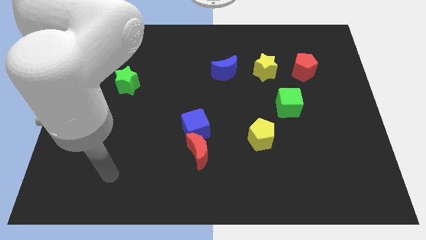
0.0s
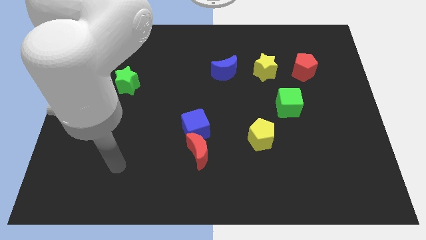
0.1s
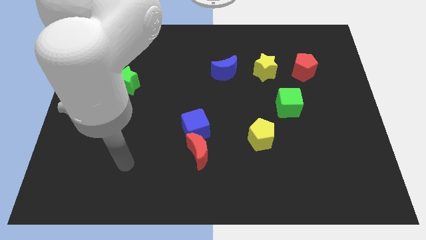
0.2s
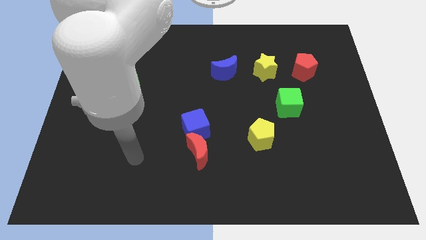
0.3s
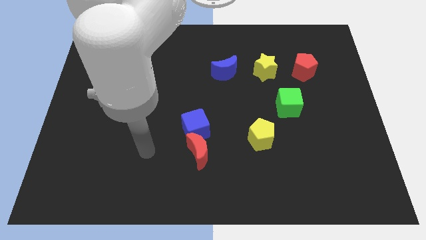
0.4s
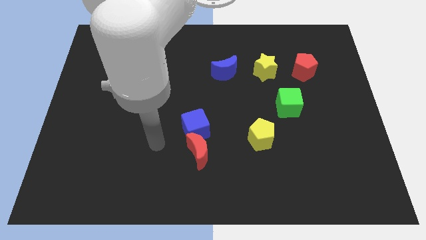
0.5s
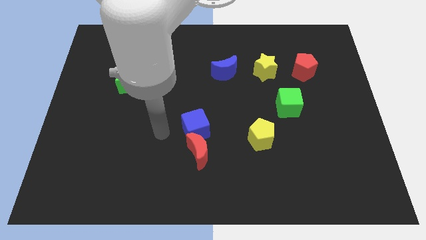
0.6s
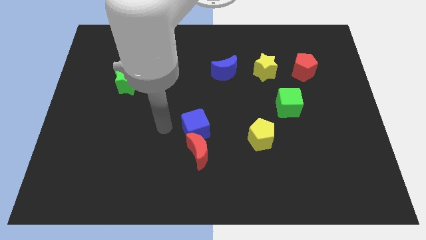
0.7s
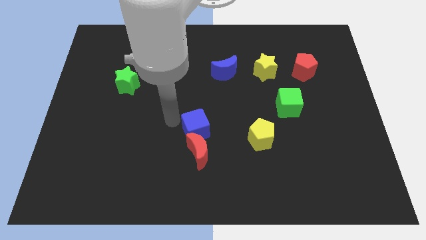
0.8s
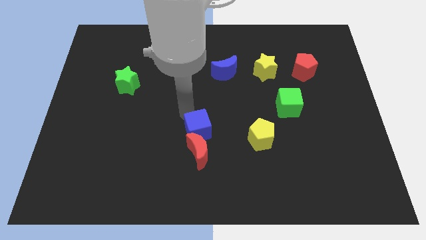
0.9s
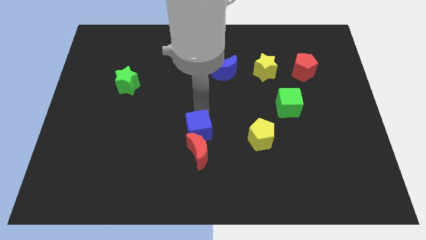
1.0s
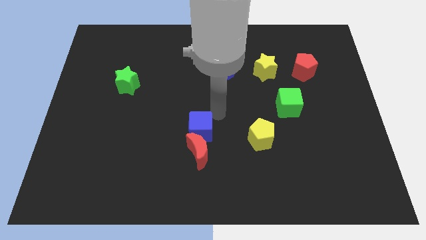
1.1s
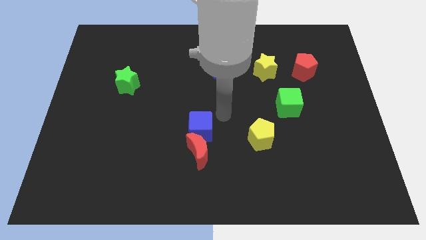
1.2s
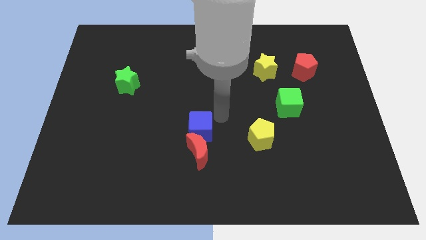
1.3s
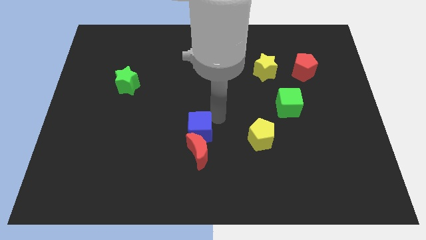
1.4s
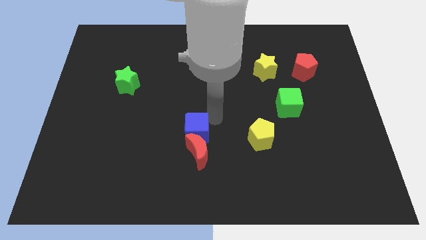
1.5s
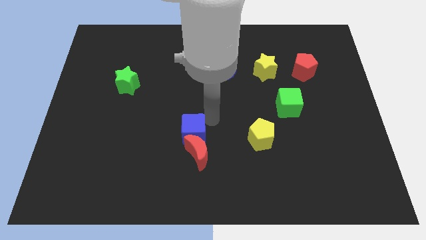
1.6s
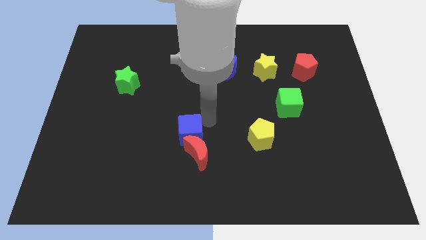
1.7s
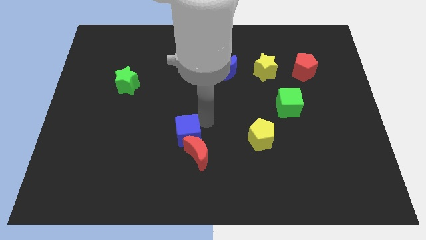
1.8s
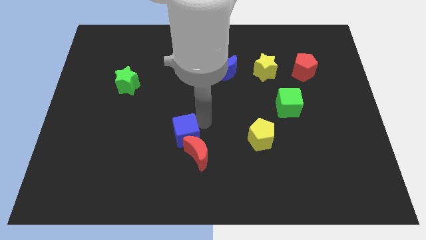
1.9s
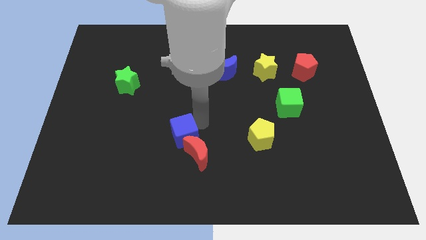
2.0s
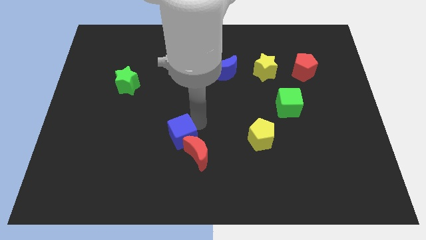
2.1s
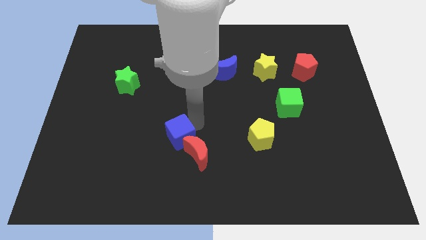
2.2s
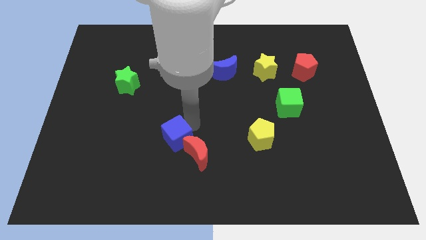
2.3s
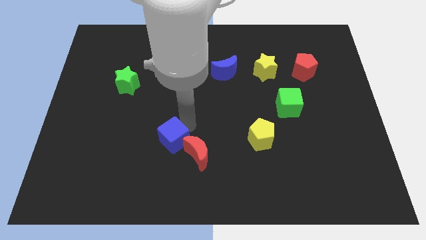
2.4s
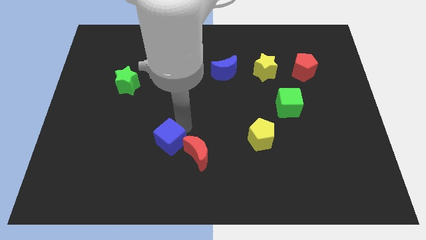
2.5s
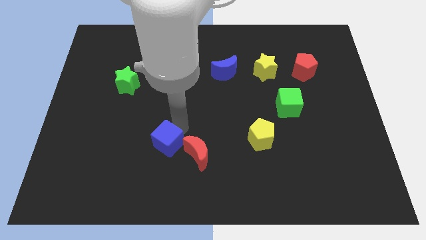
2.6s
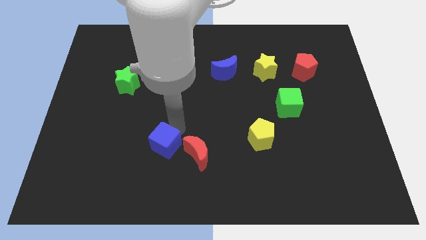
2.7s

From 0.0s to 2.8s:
move the blue cube somewhat downwards and left

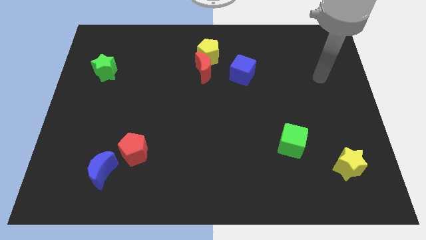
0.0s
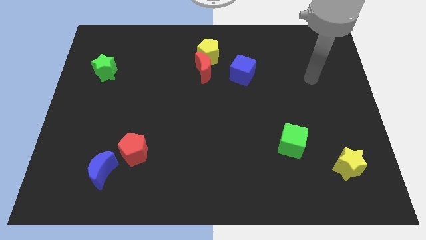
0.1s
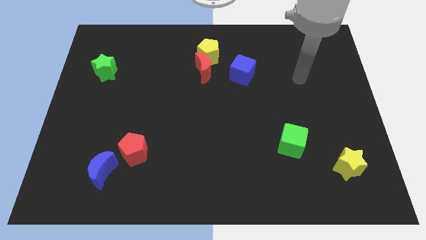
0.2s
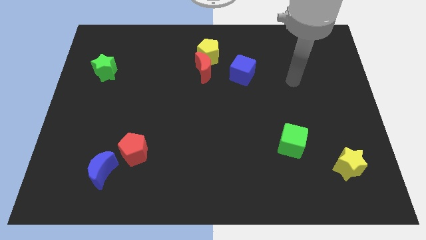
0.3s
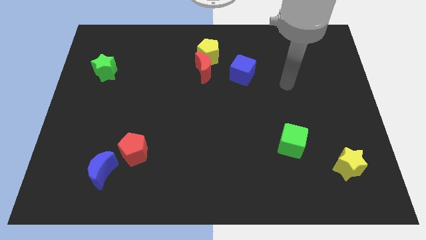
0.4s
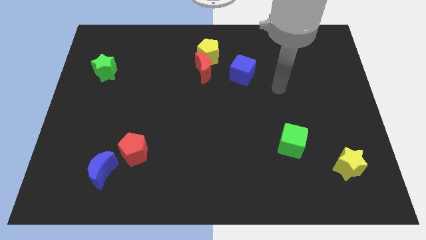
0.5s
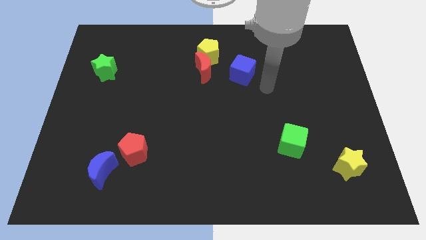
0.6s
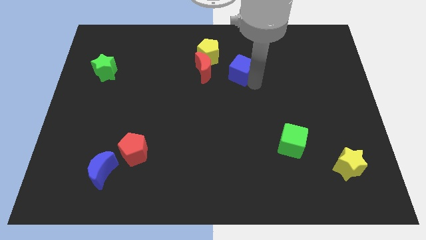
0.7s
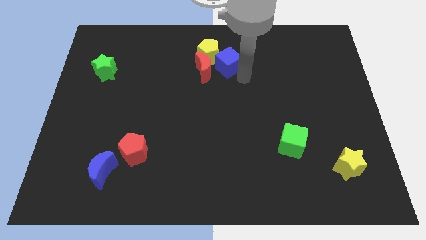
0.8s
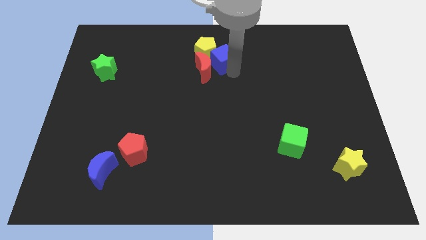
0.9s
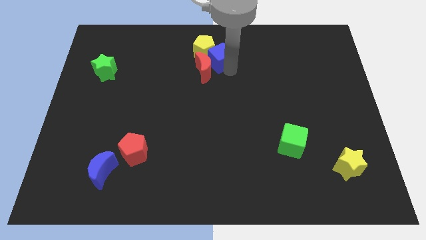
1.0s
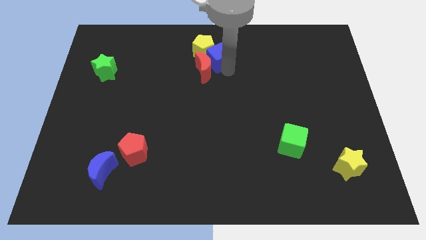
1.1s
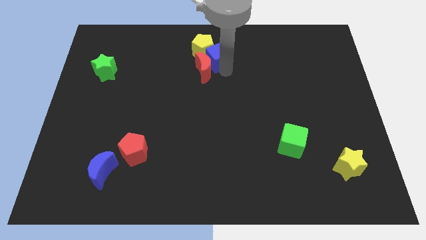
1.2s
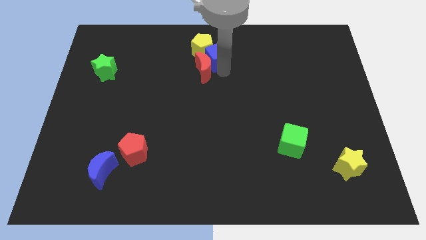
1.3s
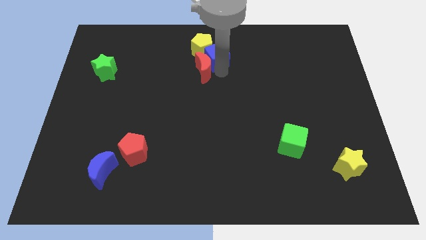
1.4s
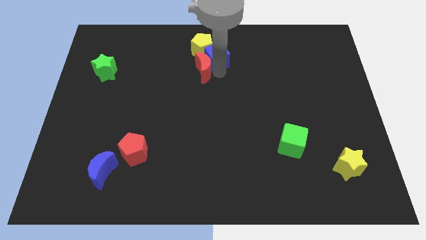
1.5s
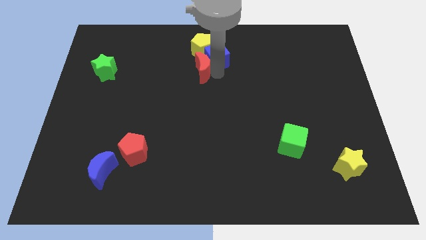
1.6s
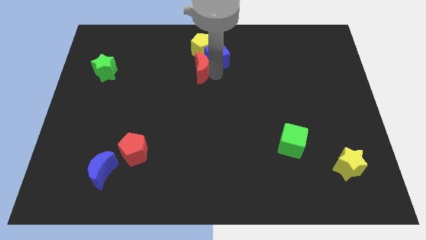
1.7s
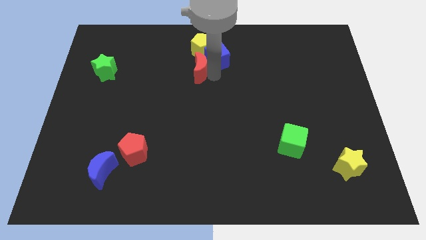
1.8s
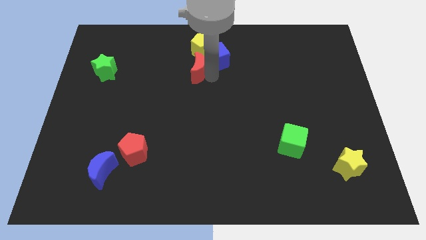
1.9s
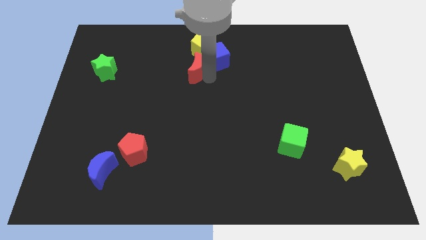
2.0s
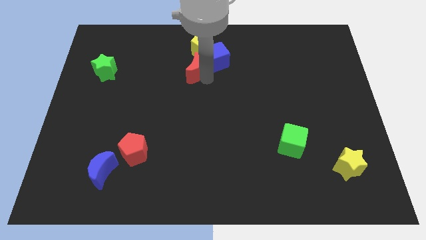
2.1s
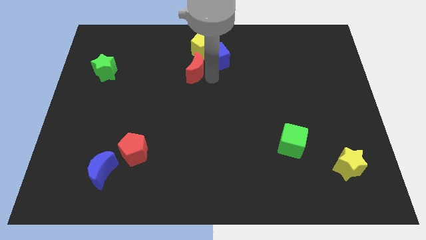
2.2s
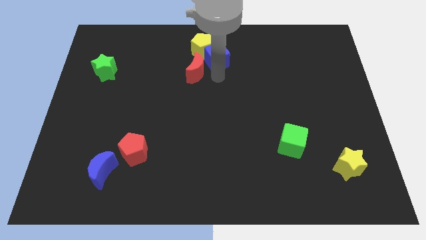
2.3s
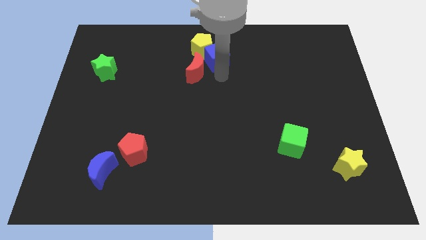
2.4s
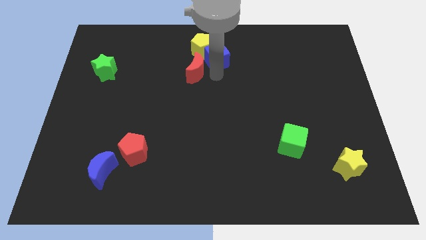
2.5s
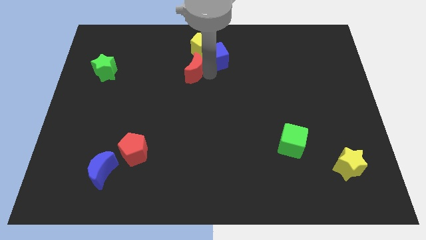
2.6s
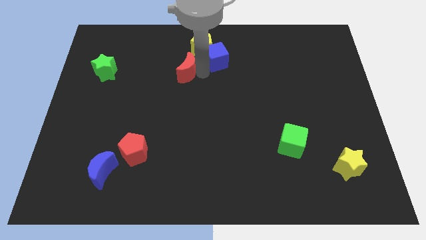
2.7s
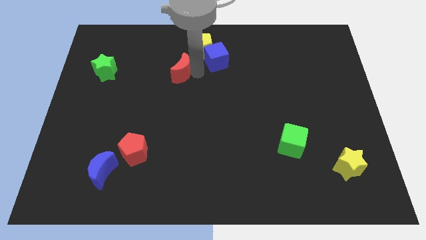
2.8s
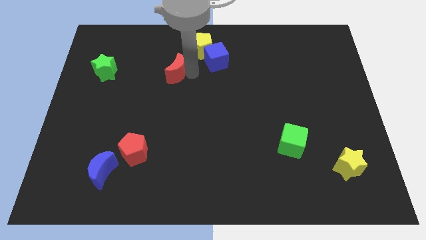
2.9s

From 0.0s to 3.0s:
slide the red moon somewhat to the left

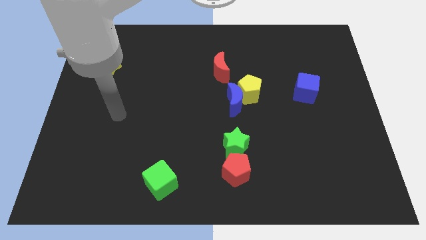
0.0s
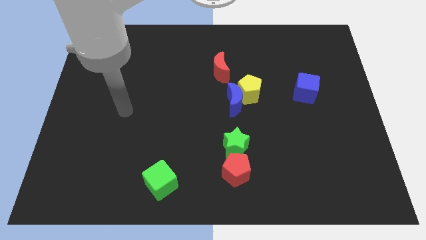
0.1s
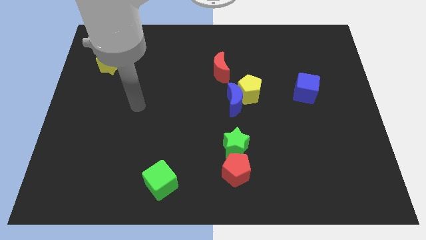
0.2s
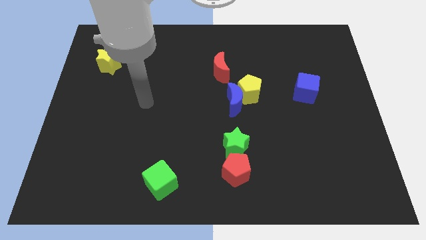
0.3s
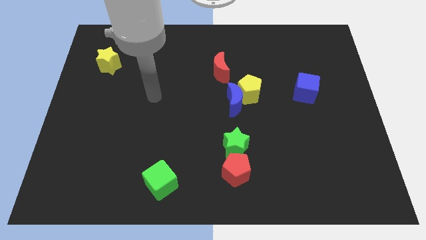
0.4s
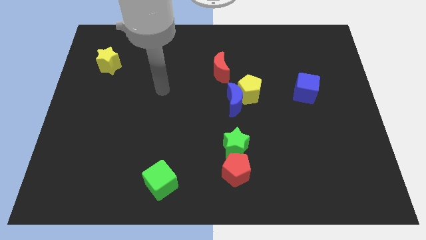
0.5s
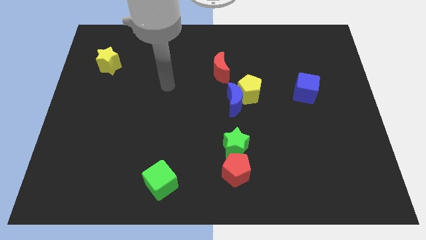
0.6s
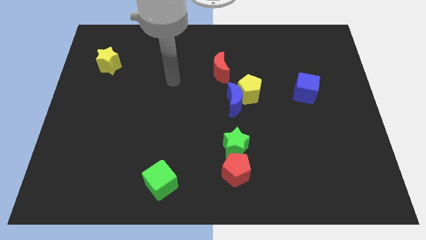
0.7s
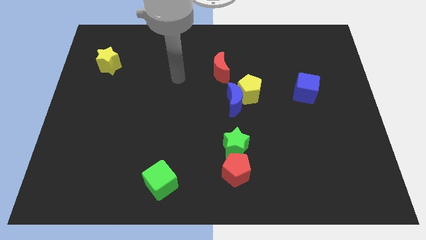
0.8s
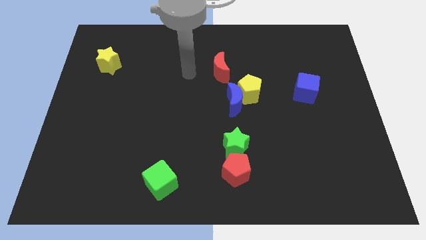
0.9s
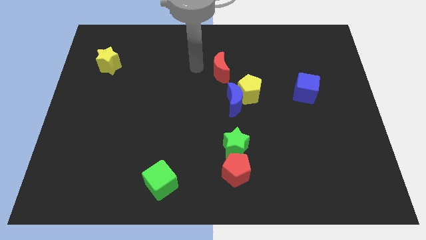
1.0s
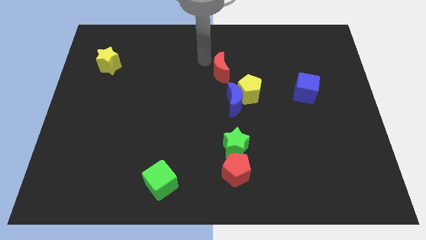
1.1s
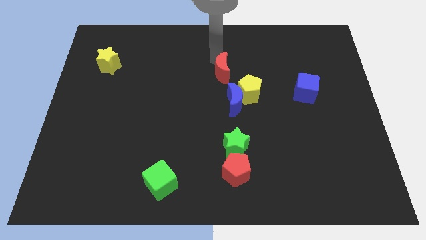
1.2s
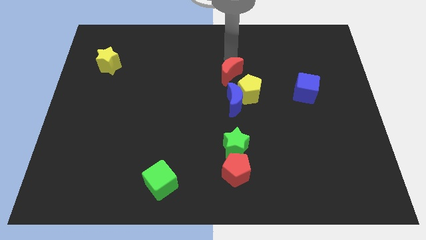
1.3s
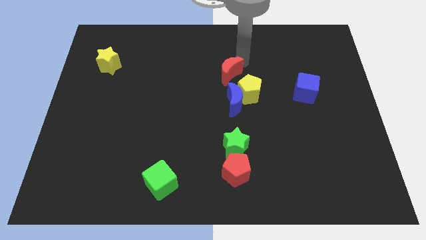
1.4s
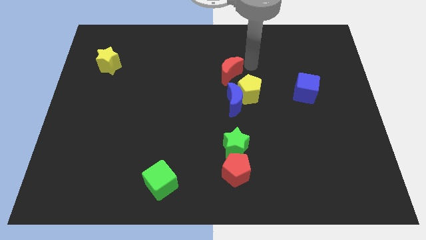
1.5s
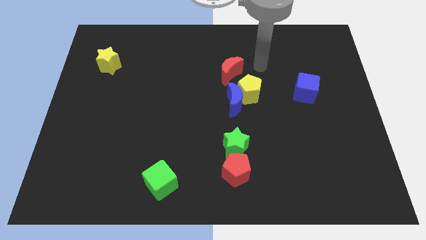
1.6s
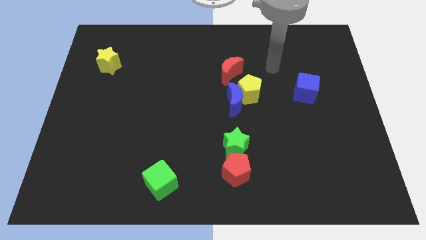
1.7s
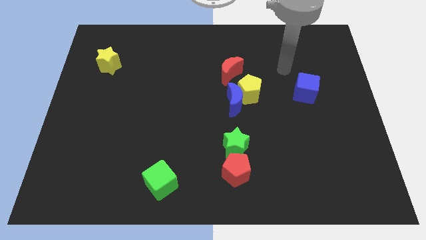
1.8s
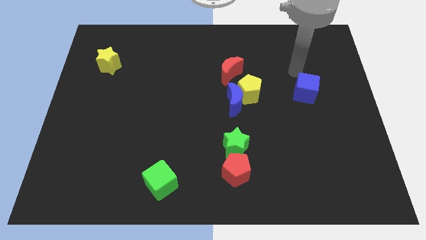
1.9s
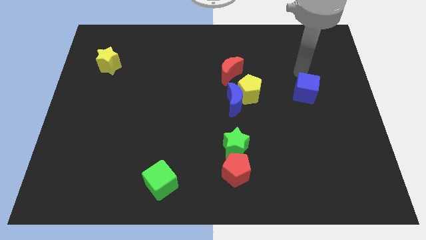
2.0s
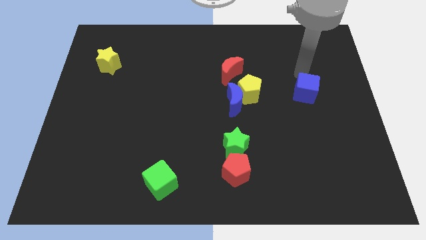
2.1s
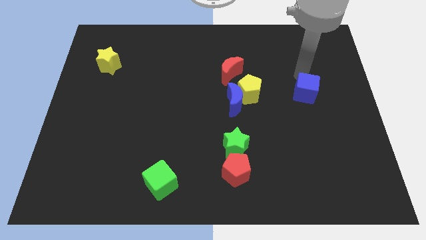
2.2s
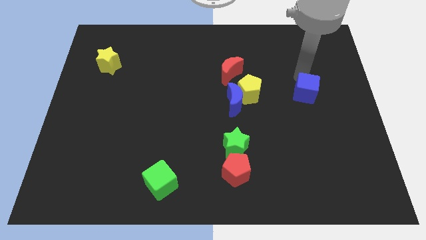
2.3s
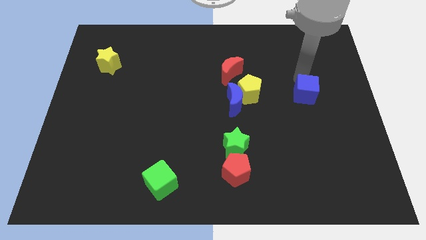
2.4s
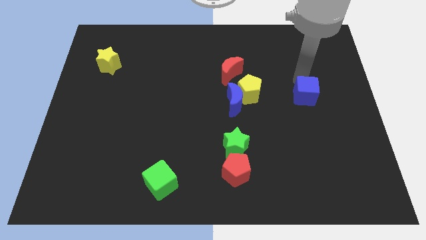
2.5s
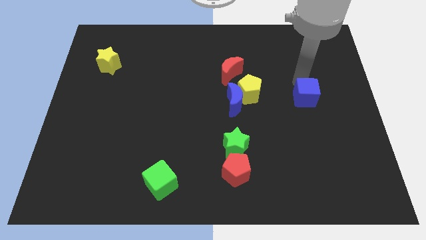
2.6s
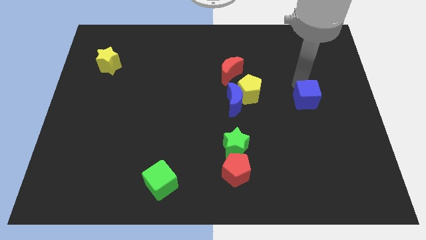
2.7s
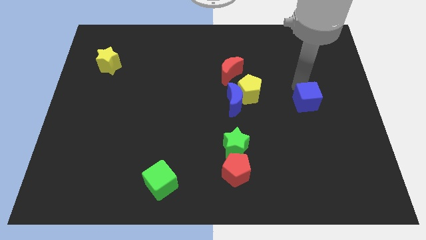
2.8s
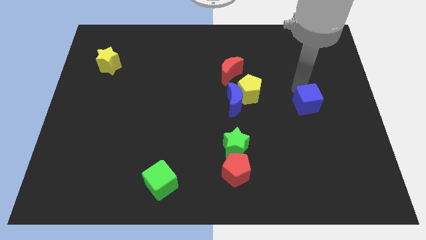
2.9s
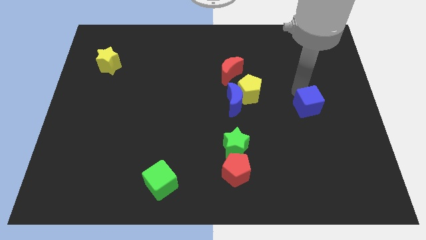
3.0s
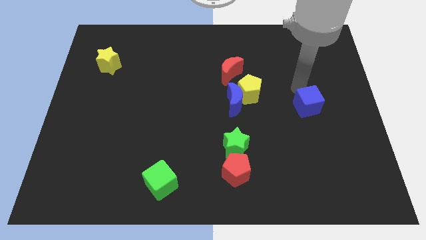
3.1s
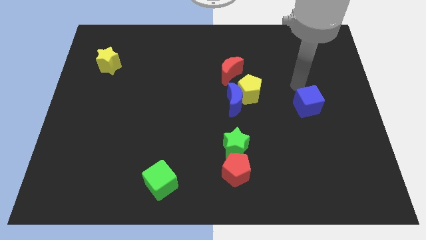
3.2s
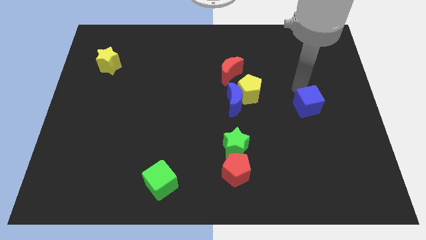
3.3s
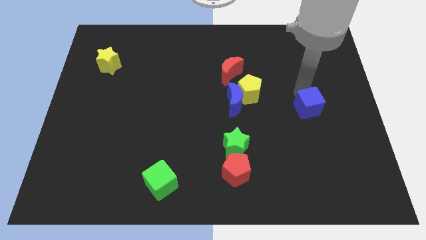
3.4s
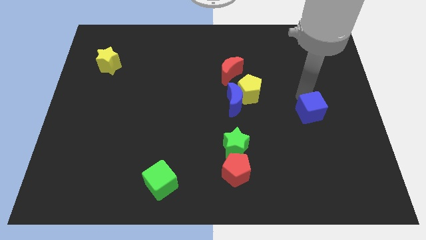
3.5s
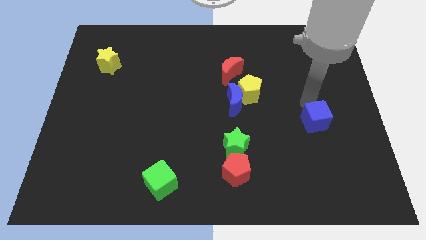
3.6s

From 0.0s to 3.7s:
push the blue cube a little bit down
